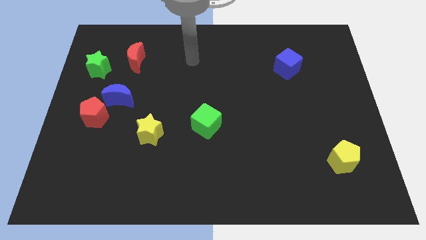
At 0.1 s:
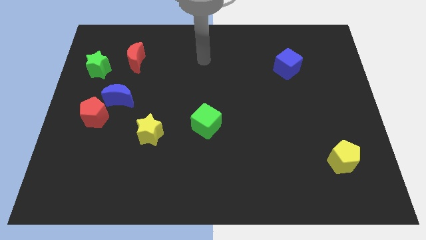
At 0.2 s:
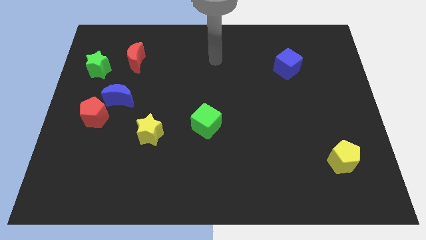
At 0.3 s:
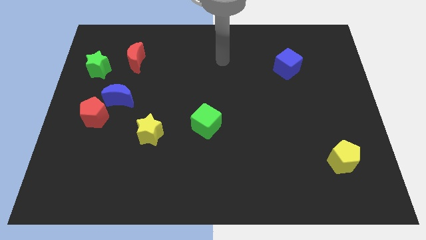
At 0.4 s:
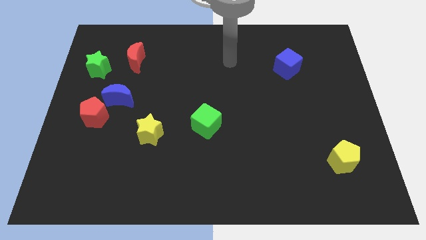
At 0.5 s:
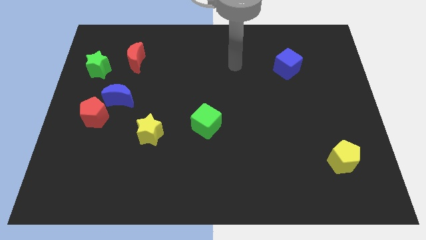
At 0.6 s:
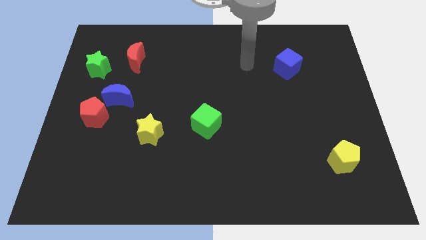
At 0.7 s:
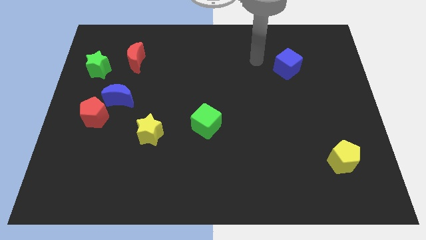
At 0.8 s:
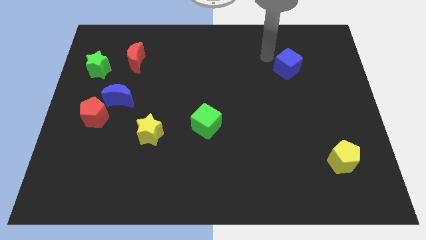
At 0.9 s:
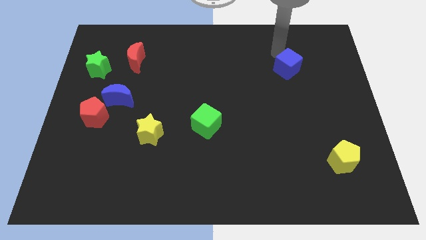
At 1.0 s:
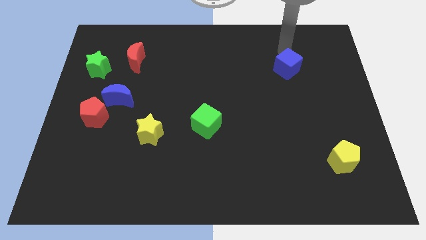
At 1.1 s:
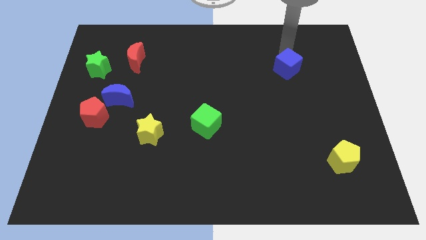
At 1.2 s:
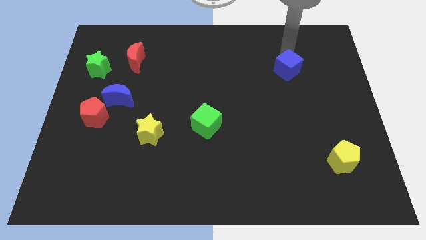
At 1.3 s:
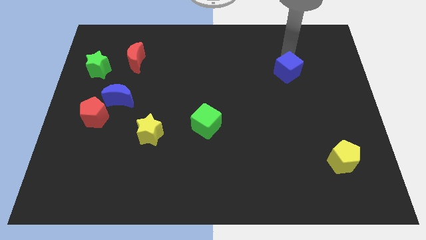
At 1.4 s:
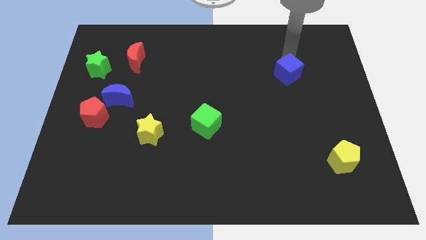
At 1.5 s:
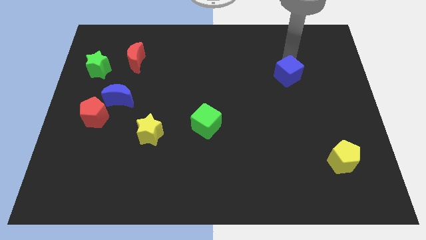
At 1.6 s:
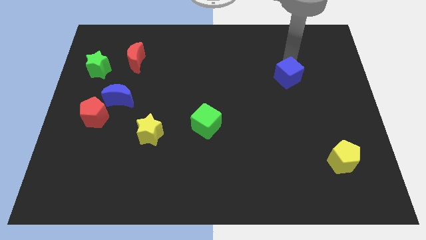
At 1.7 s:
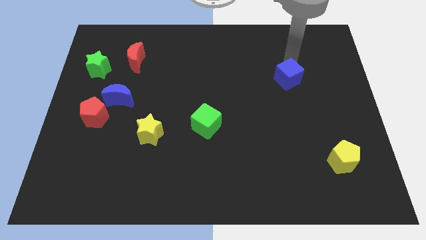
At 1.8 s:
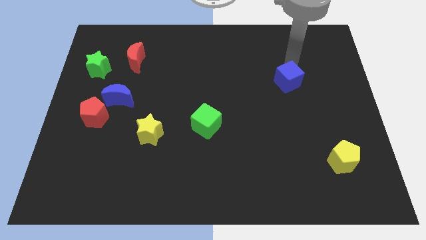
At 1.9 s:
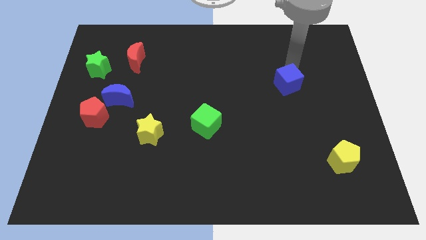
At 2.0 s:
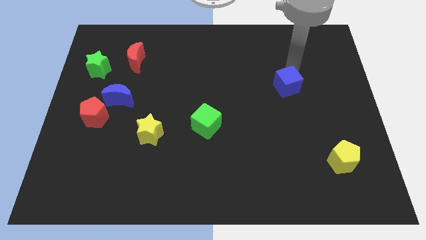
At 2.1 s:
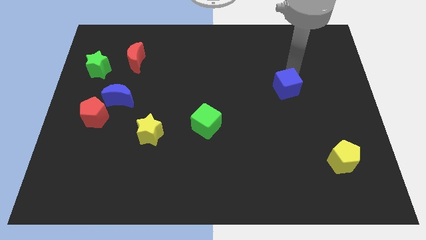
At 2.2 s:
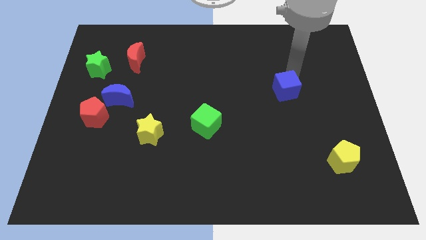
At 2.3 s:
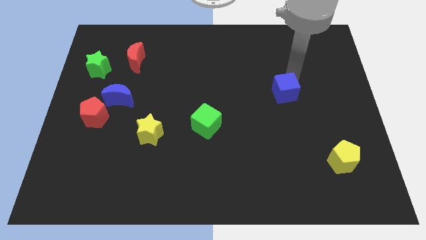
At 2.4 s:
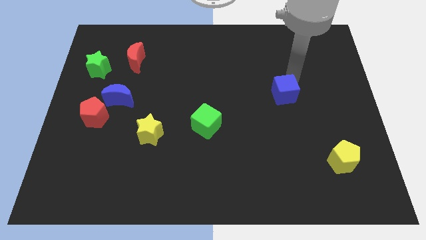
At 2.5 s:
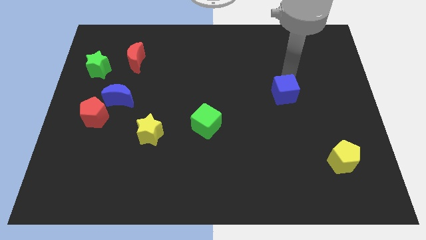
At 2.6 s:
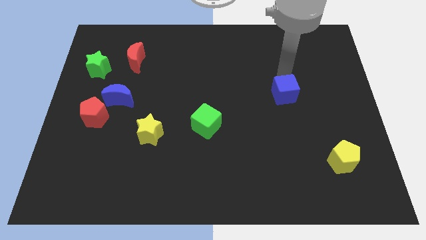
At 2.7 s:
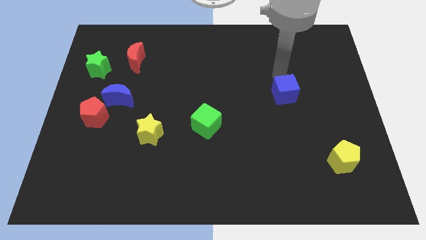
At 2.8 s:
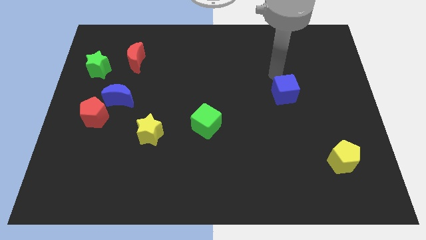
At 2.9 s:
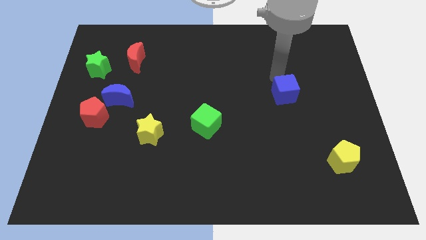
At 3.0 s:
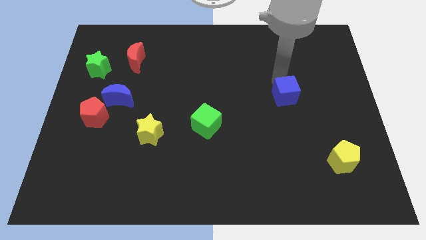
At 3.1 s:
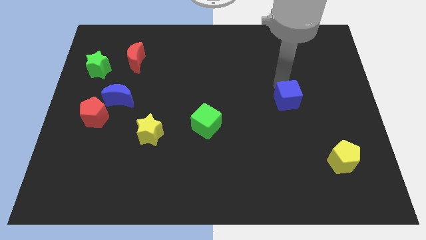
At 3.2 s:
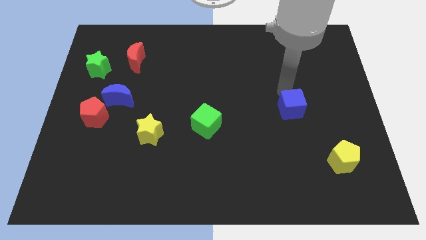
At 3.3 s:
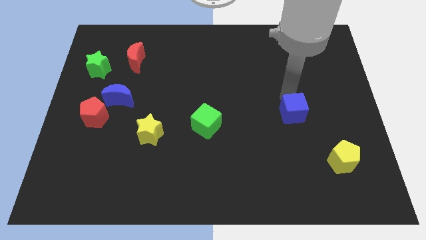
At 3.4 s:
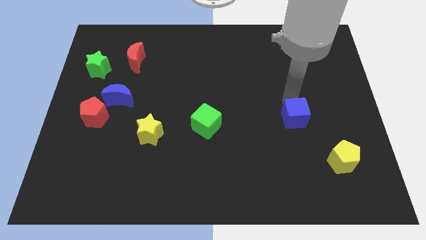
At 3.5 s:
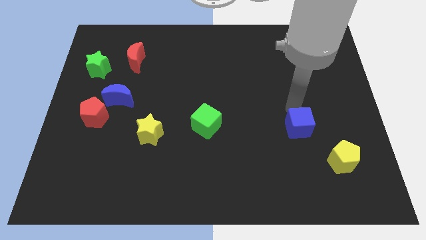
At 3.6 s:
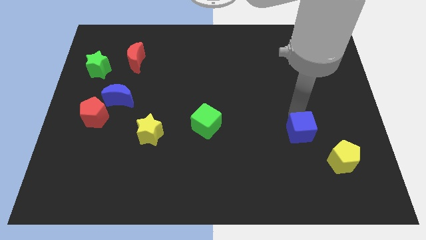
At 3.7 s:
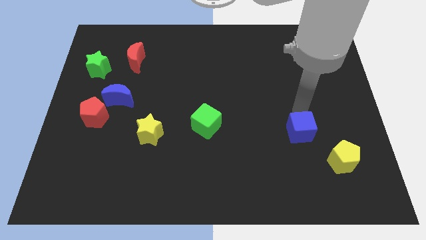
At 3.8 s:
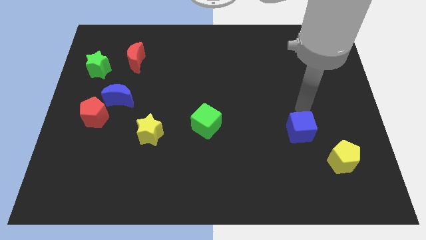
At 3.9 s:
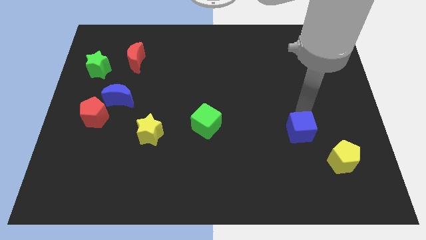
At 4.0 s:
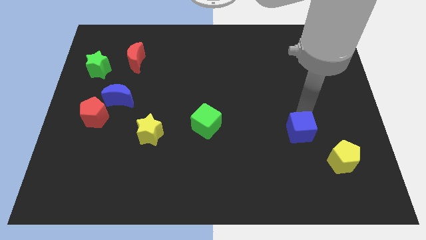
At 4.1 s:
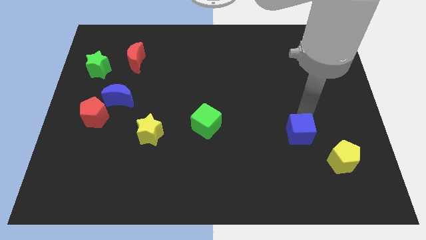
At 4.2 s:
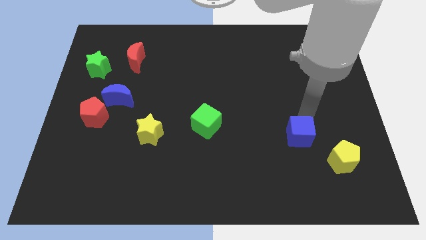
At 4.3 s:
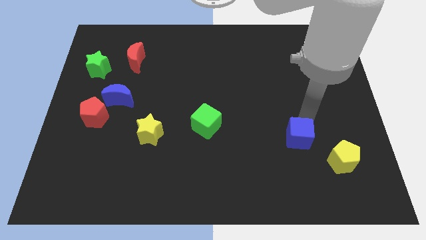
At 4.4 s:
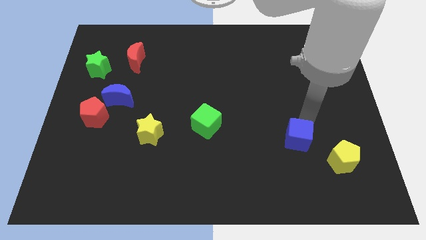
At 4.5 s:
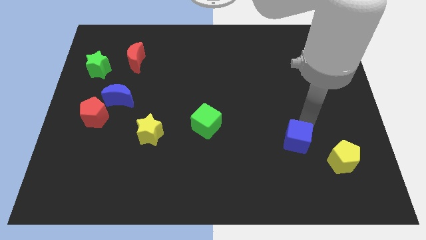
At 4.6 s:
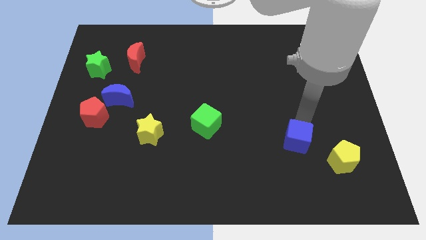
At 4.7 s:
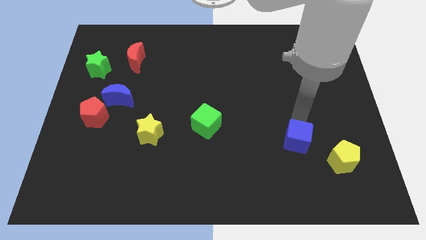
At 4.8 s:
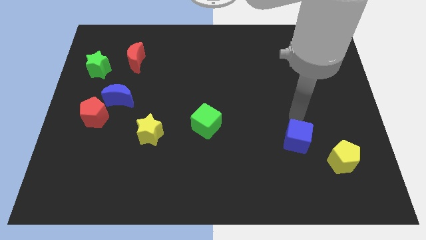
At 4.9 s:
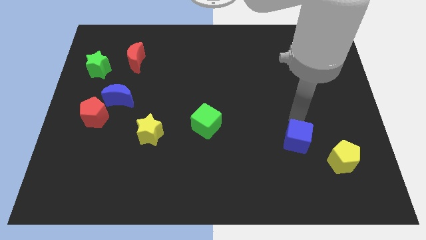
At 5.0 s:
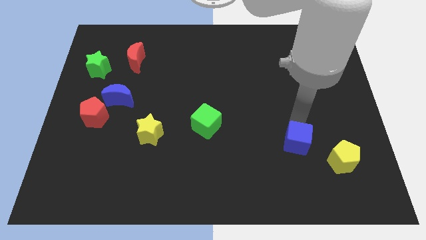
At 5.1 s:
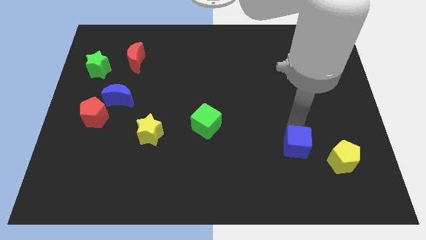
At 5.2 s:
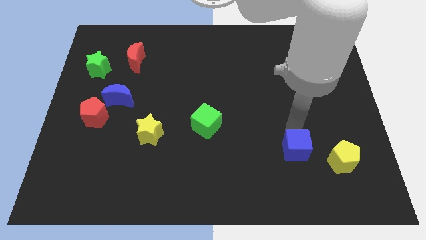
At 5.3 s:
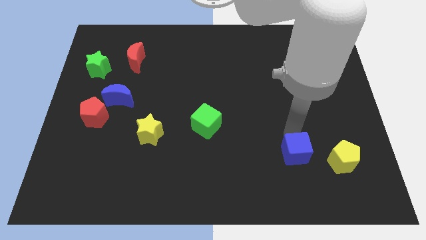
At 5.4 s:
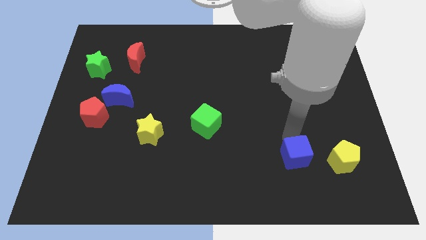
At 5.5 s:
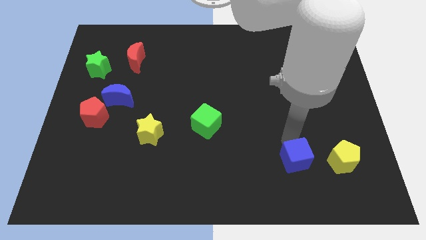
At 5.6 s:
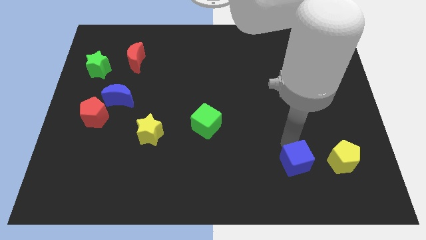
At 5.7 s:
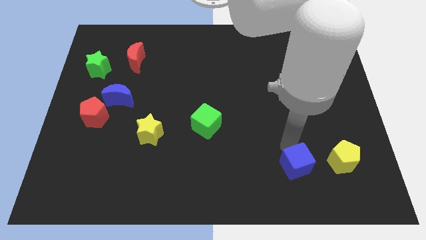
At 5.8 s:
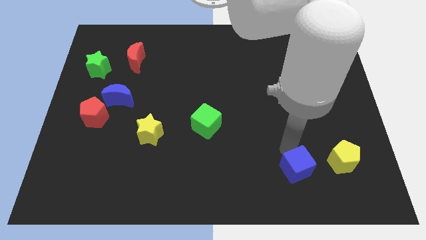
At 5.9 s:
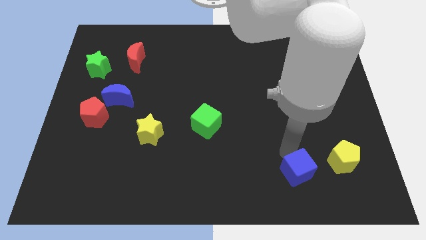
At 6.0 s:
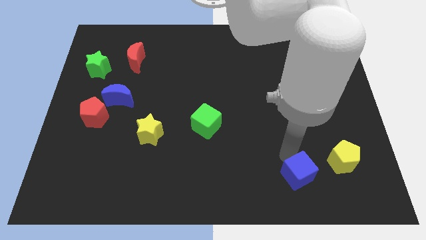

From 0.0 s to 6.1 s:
put the blue cube diagonally down and to the left of the yellow pentagon

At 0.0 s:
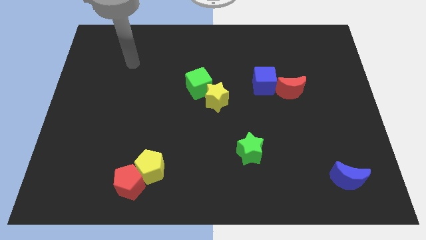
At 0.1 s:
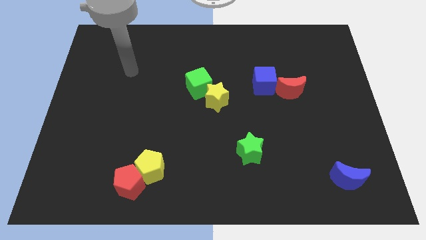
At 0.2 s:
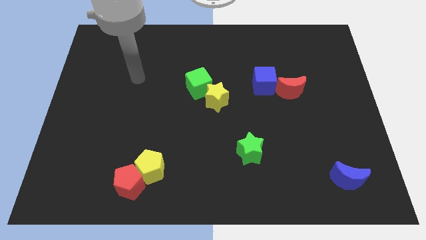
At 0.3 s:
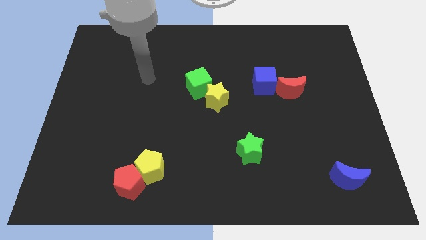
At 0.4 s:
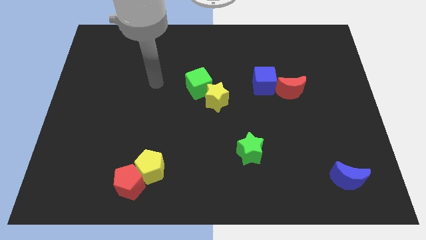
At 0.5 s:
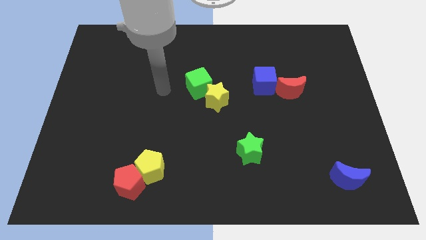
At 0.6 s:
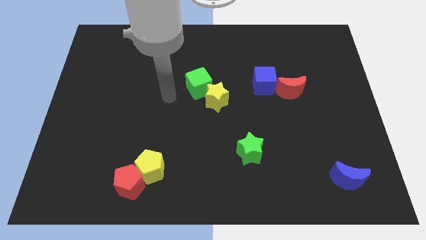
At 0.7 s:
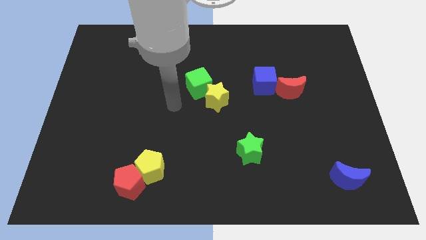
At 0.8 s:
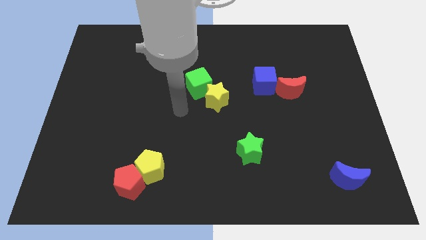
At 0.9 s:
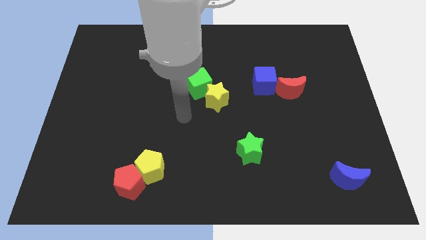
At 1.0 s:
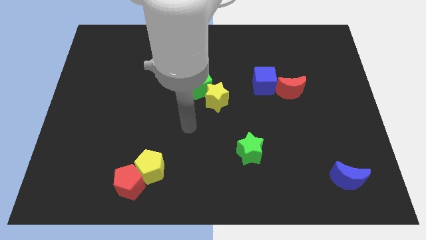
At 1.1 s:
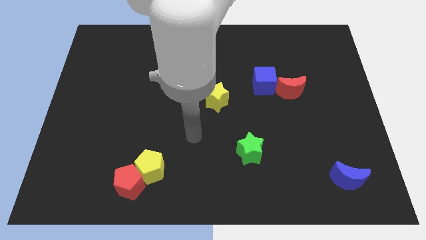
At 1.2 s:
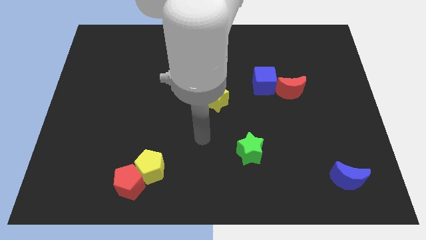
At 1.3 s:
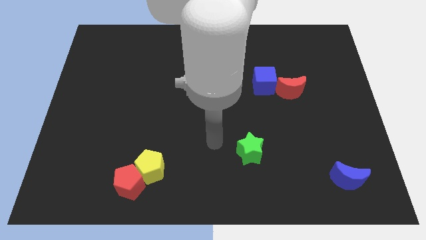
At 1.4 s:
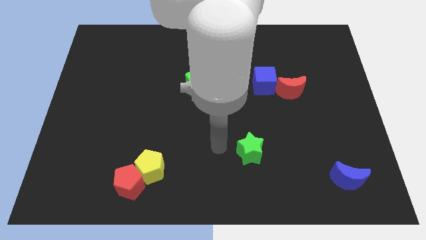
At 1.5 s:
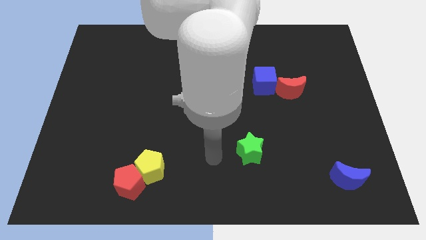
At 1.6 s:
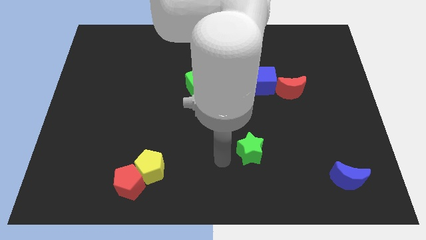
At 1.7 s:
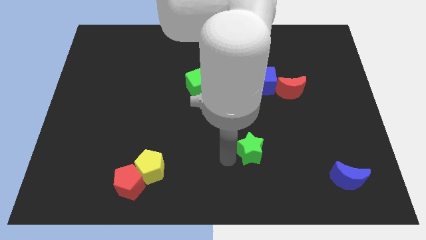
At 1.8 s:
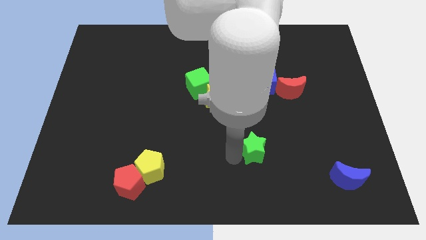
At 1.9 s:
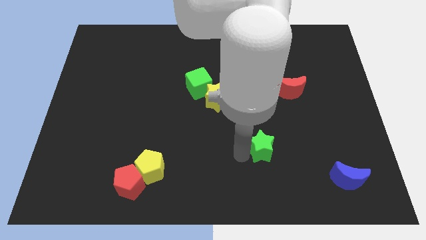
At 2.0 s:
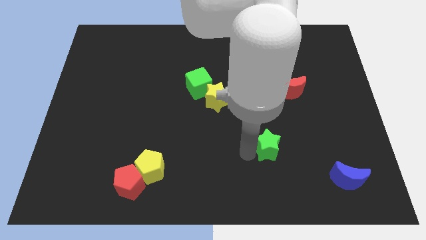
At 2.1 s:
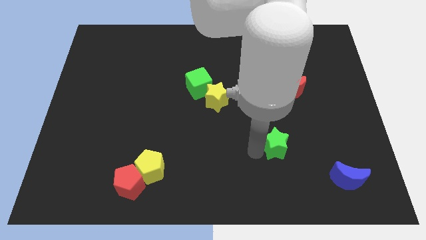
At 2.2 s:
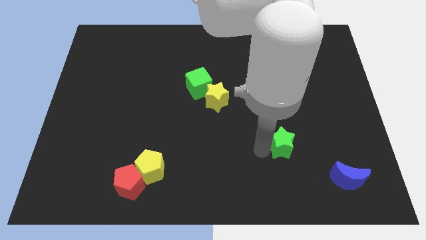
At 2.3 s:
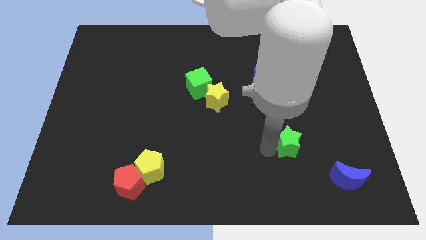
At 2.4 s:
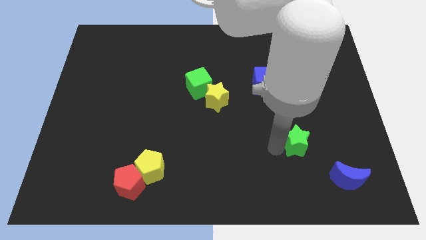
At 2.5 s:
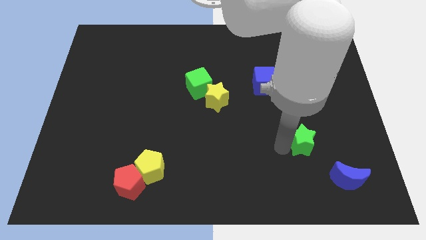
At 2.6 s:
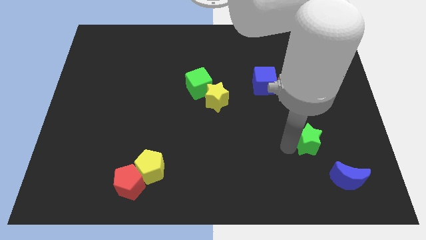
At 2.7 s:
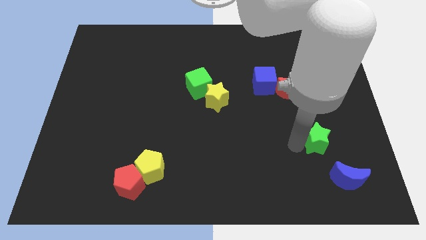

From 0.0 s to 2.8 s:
put the green star above the blue moon
